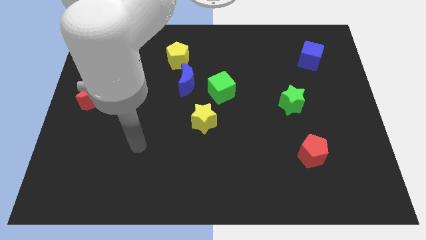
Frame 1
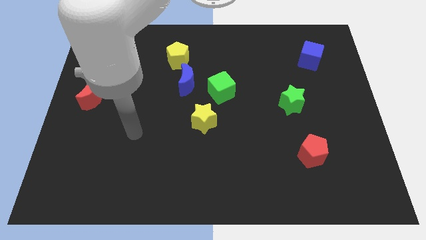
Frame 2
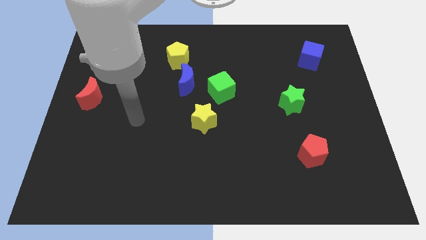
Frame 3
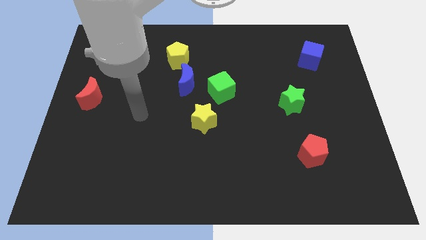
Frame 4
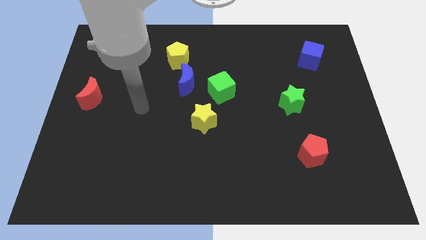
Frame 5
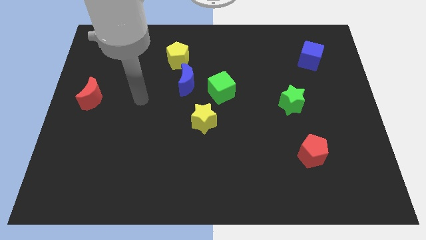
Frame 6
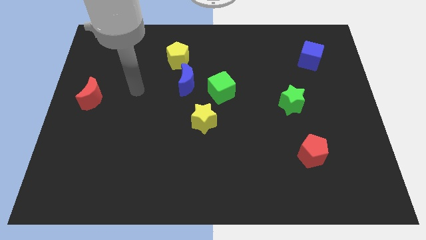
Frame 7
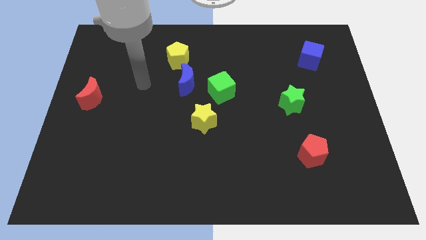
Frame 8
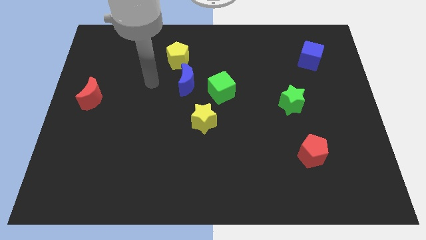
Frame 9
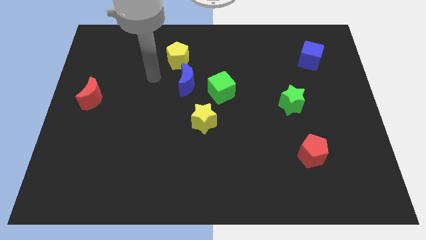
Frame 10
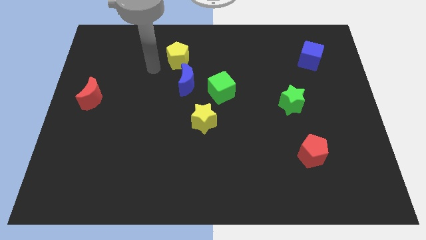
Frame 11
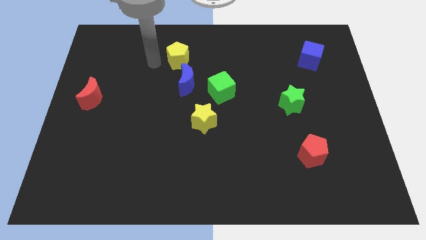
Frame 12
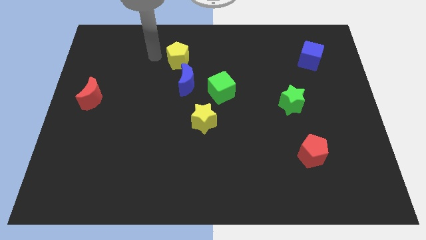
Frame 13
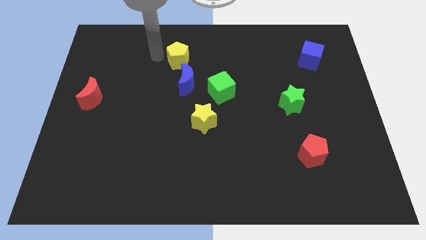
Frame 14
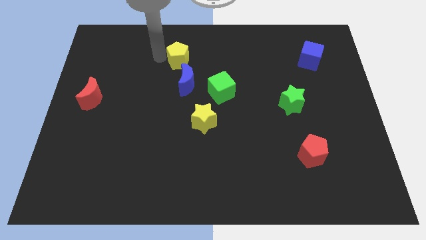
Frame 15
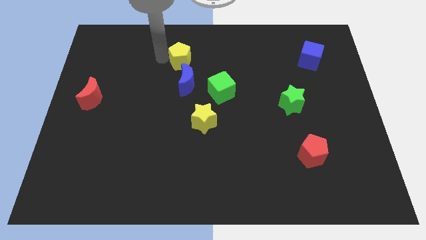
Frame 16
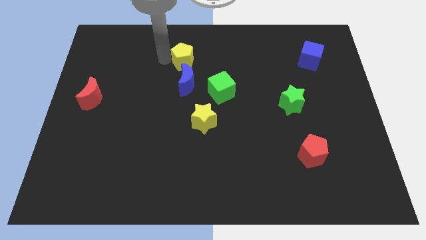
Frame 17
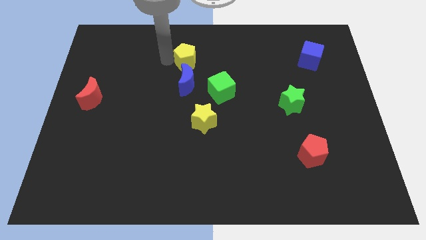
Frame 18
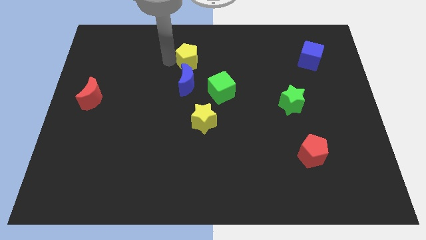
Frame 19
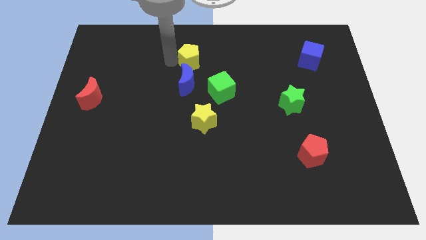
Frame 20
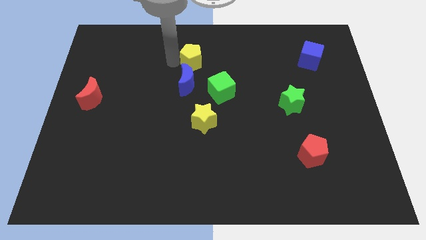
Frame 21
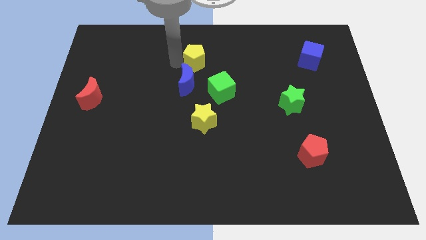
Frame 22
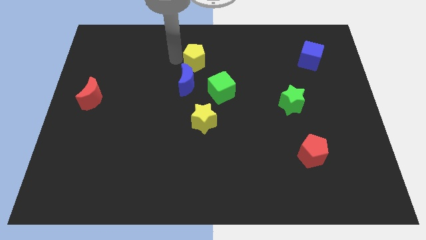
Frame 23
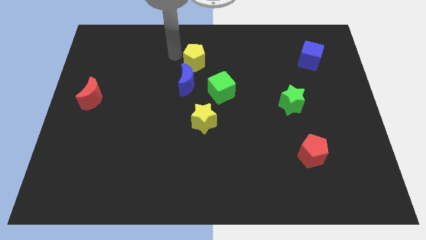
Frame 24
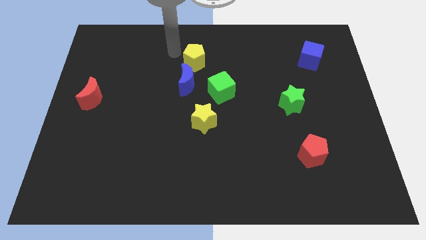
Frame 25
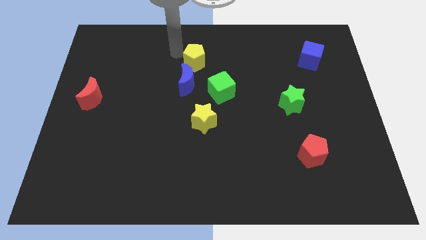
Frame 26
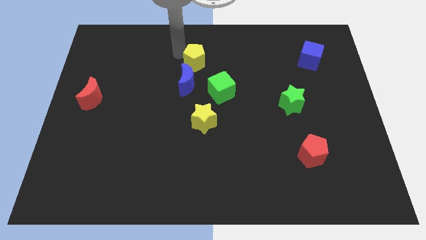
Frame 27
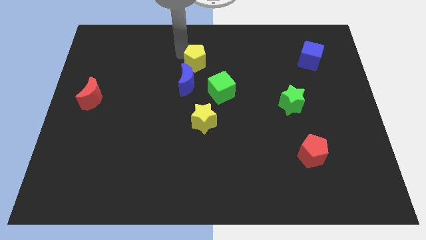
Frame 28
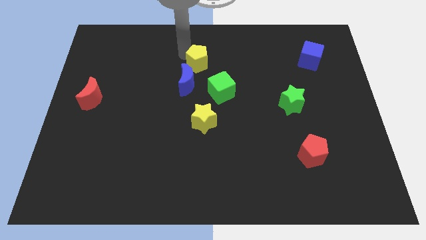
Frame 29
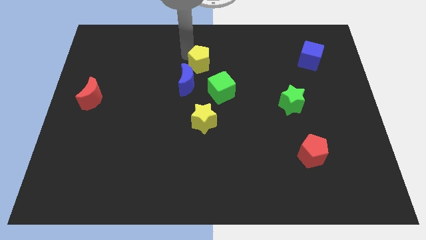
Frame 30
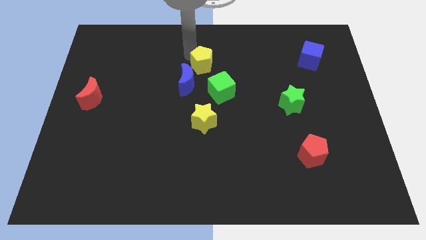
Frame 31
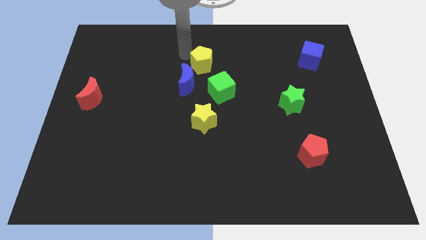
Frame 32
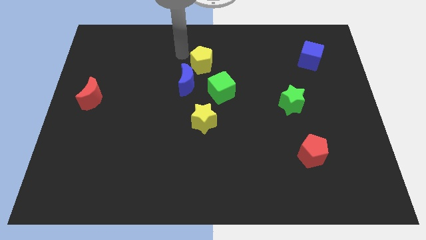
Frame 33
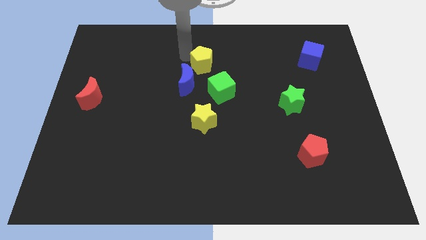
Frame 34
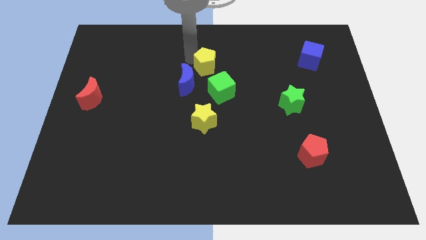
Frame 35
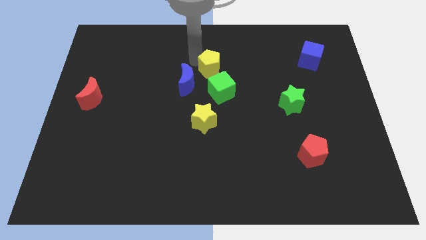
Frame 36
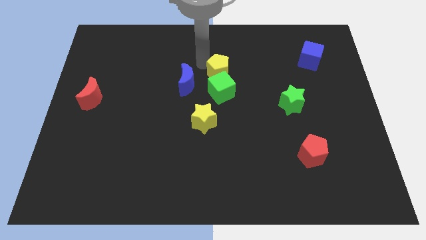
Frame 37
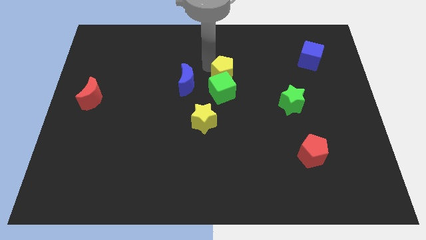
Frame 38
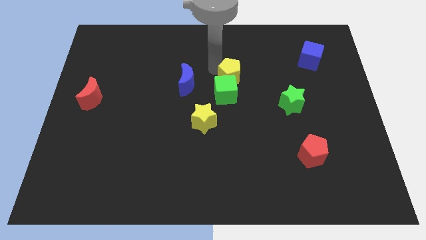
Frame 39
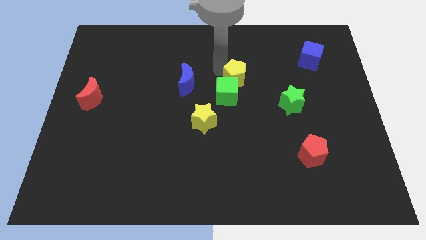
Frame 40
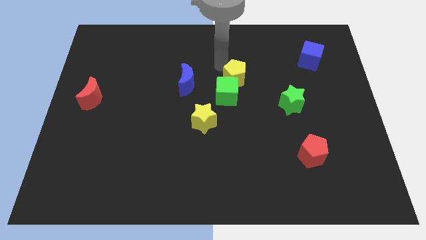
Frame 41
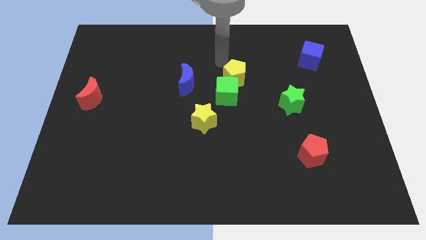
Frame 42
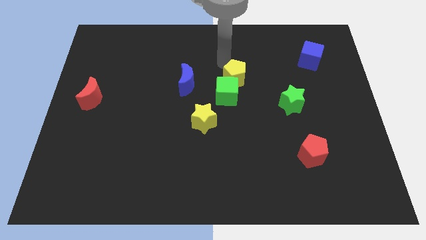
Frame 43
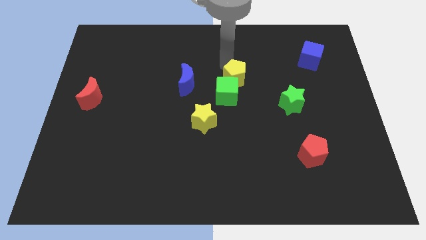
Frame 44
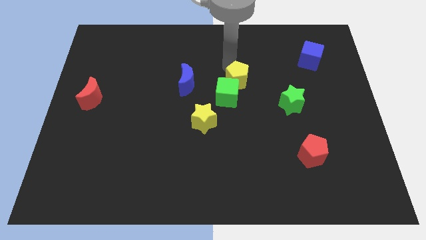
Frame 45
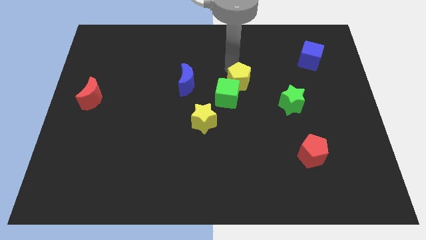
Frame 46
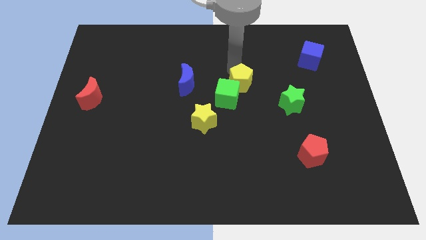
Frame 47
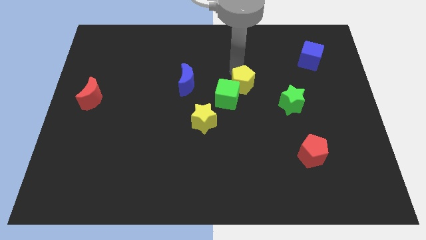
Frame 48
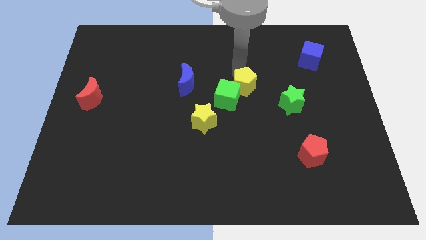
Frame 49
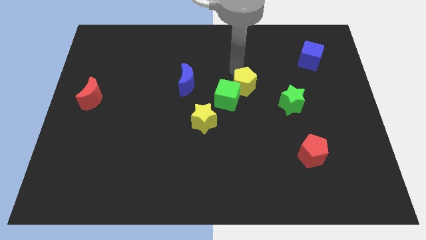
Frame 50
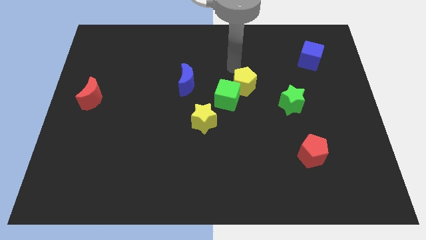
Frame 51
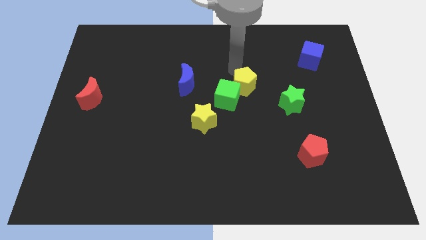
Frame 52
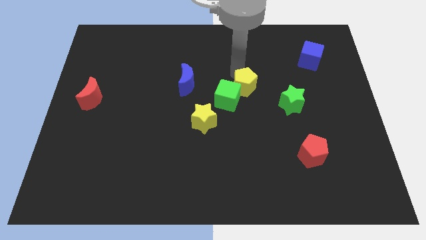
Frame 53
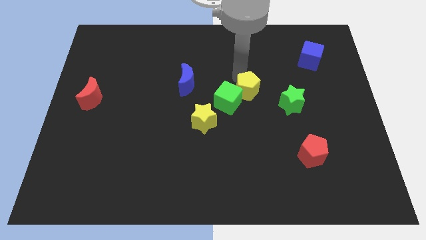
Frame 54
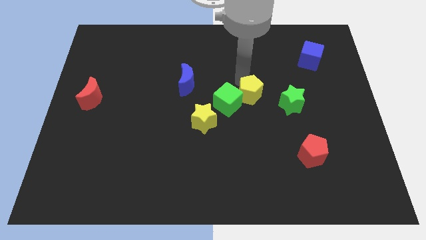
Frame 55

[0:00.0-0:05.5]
move the yellow pentagon down and then right

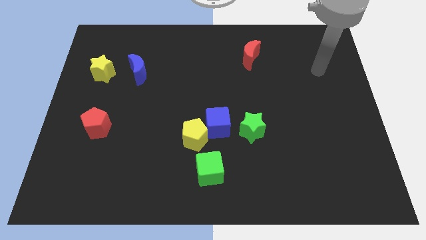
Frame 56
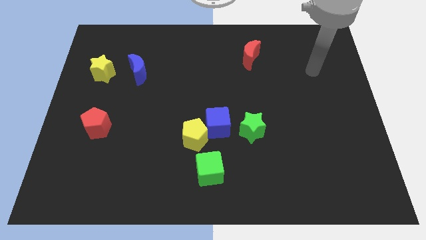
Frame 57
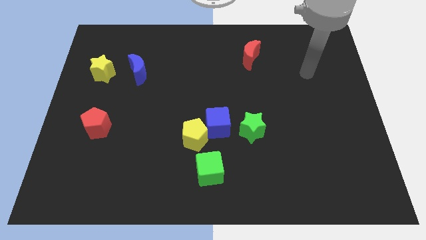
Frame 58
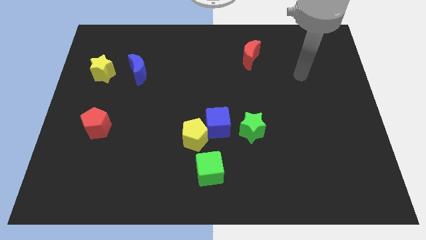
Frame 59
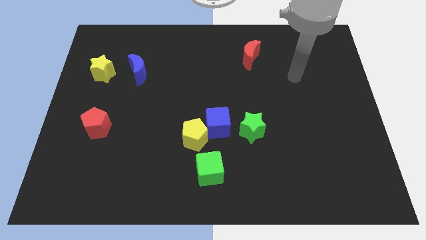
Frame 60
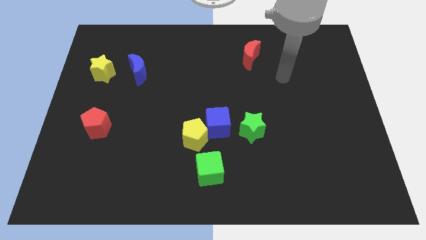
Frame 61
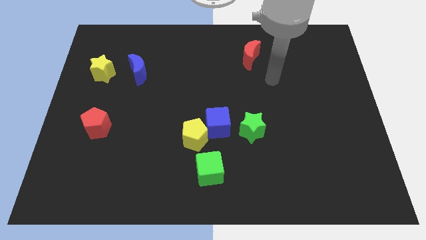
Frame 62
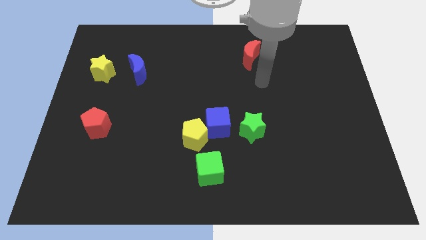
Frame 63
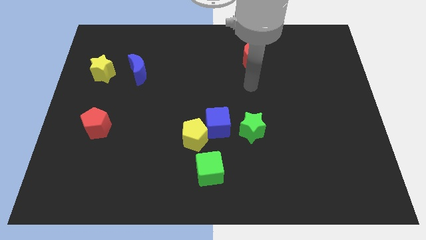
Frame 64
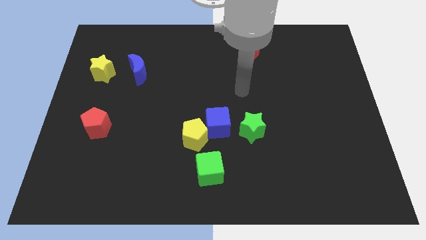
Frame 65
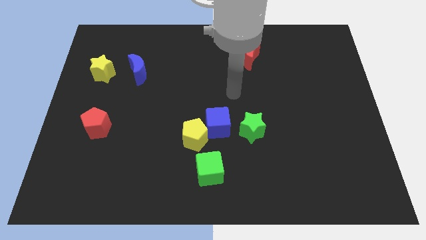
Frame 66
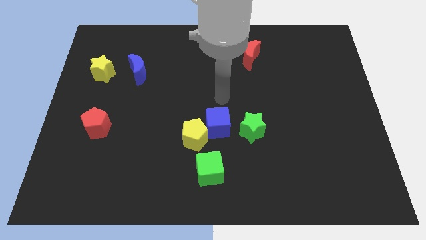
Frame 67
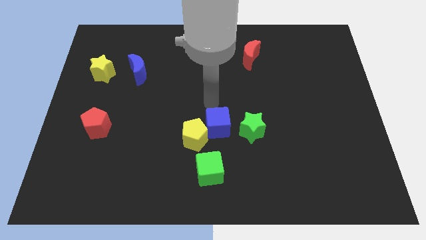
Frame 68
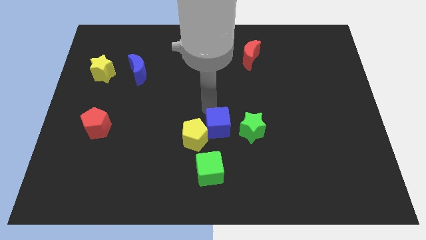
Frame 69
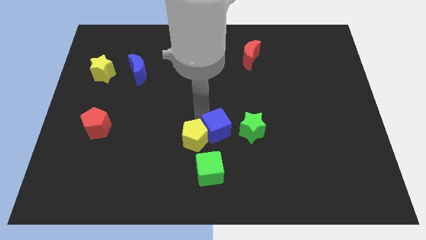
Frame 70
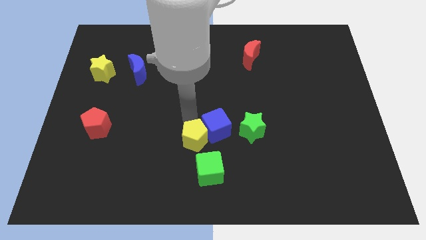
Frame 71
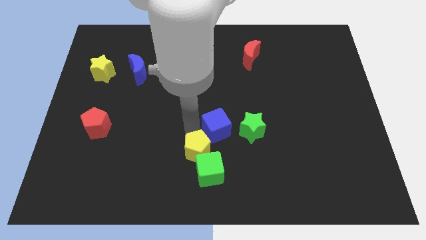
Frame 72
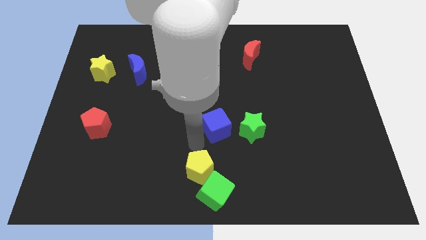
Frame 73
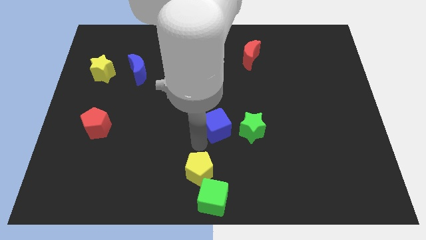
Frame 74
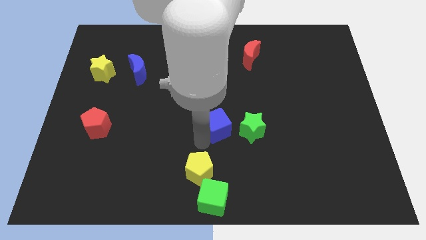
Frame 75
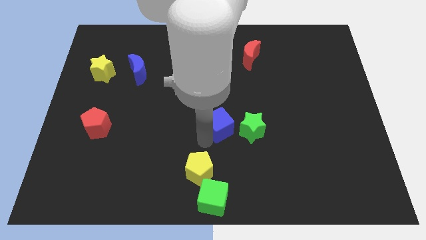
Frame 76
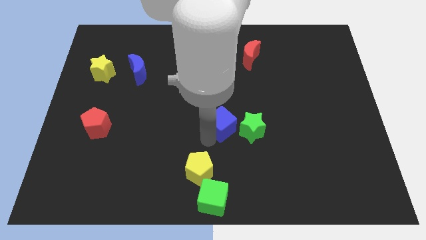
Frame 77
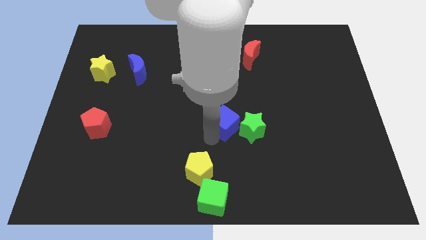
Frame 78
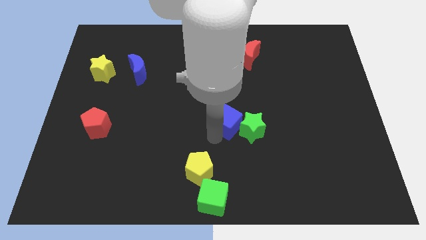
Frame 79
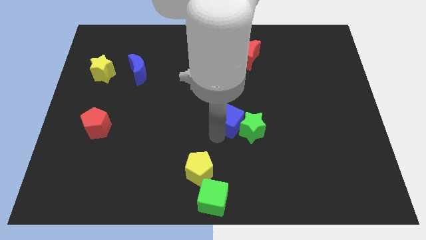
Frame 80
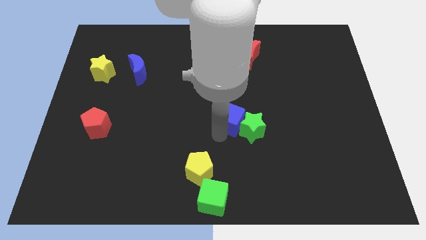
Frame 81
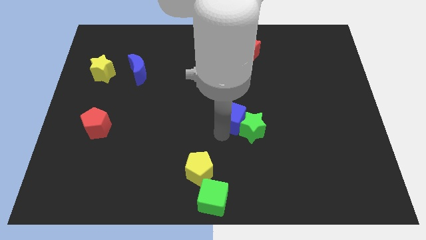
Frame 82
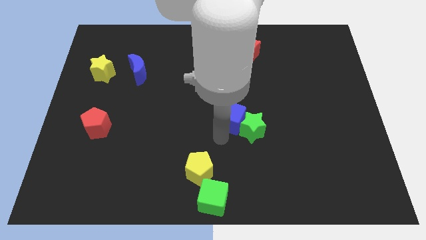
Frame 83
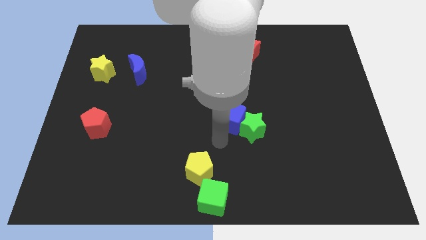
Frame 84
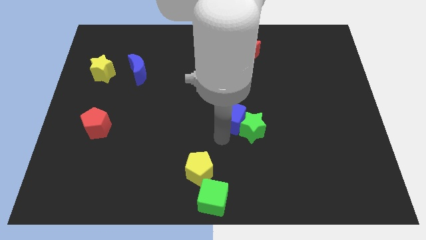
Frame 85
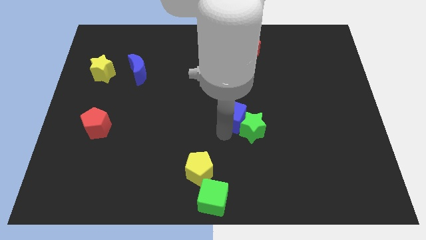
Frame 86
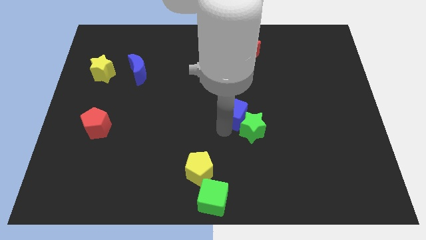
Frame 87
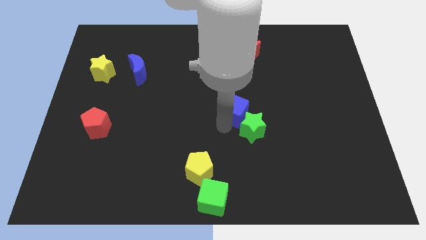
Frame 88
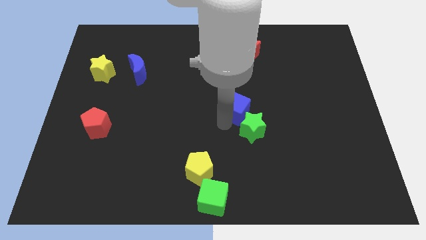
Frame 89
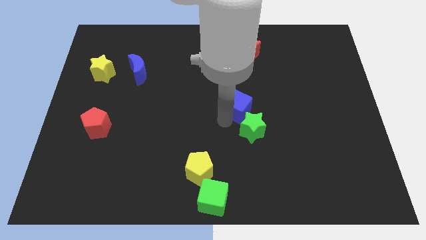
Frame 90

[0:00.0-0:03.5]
push the blue cube diagonally upwards and to the right slightly
